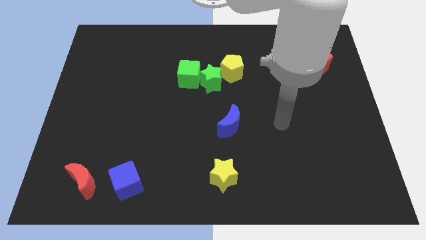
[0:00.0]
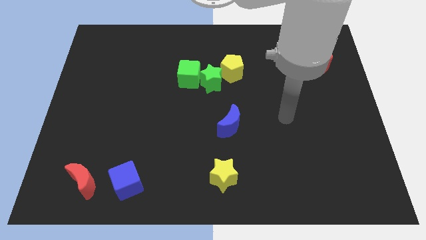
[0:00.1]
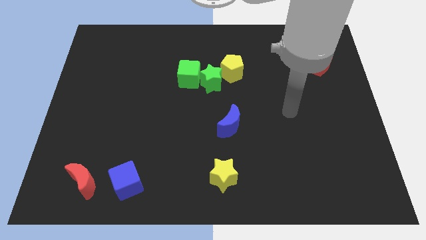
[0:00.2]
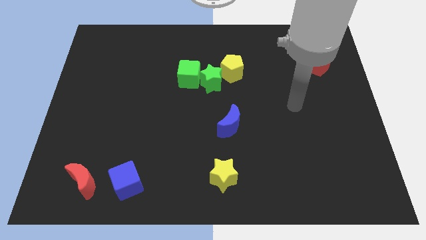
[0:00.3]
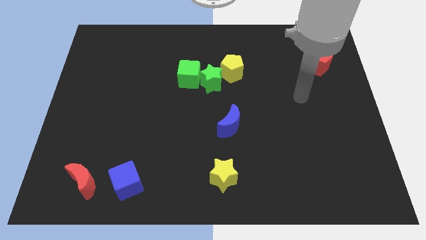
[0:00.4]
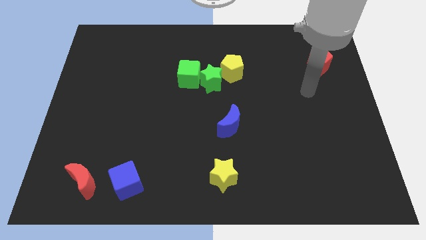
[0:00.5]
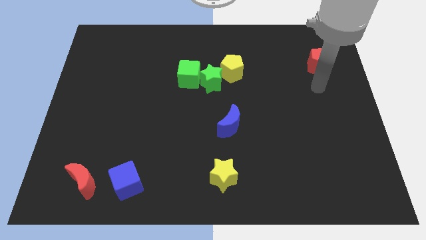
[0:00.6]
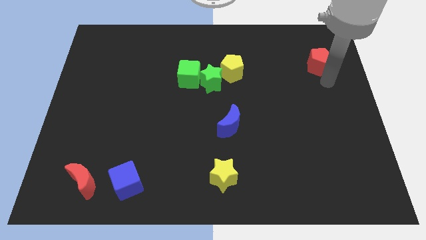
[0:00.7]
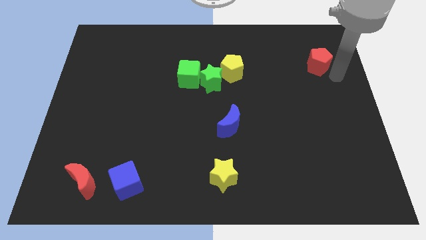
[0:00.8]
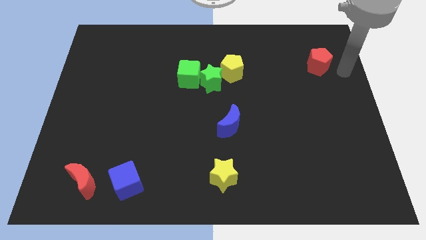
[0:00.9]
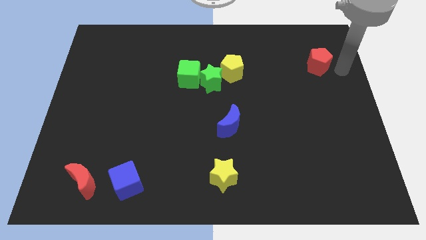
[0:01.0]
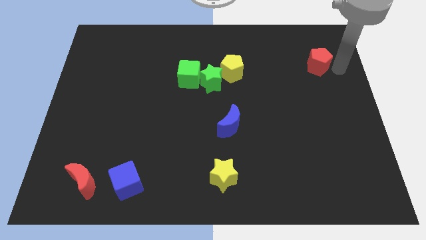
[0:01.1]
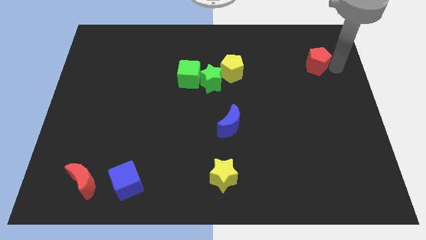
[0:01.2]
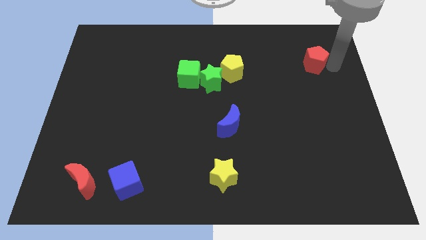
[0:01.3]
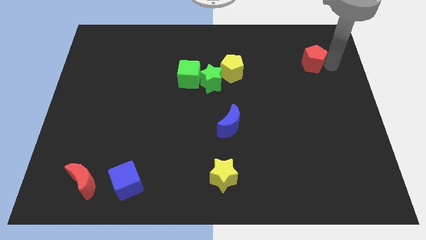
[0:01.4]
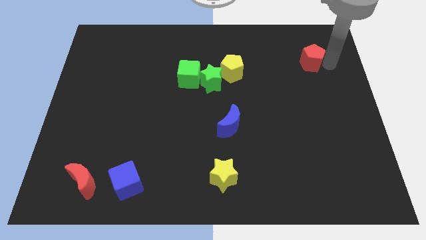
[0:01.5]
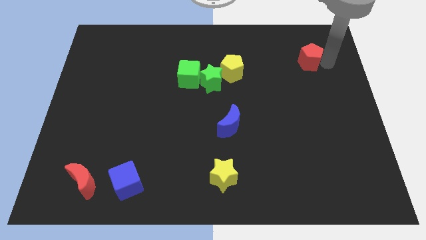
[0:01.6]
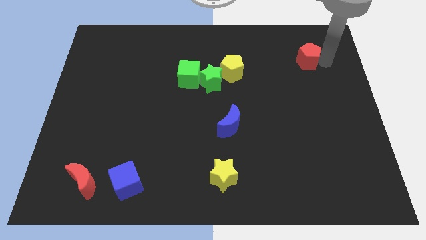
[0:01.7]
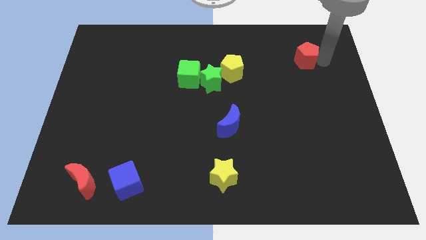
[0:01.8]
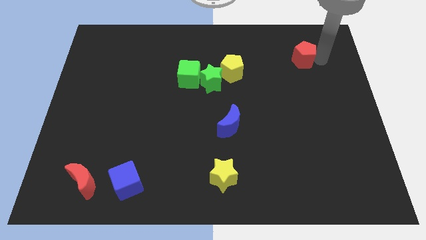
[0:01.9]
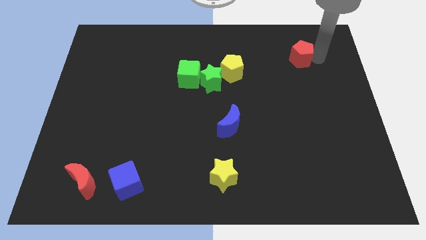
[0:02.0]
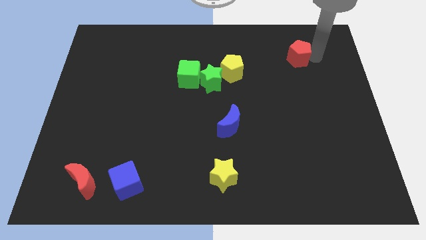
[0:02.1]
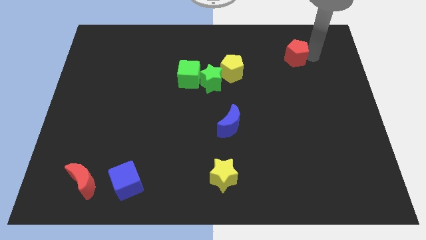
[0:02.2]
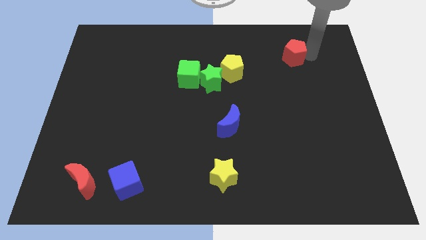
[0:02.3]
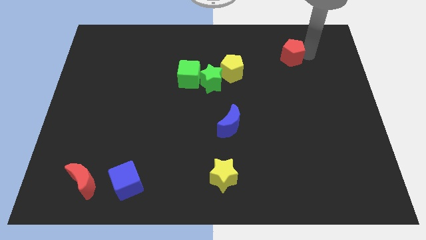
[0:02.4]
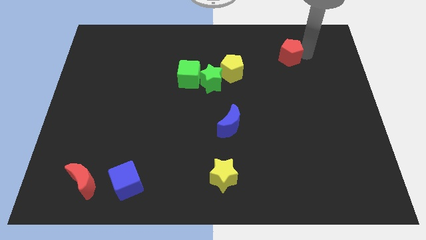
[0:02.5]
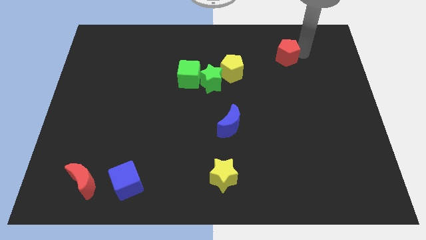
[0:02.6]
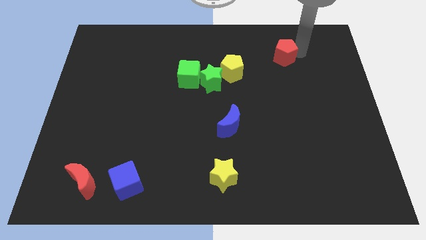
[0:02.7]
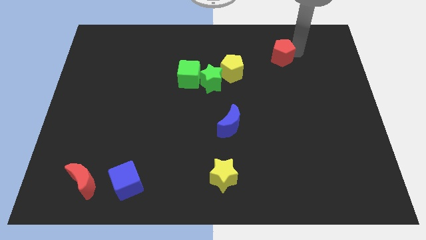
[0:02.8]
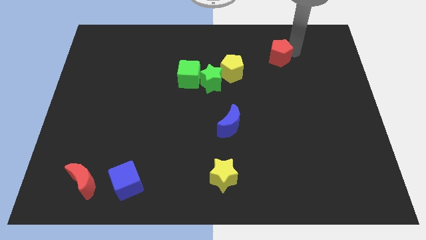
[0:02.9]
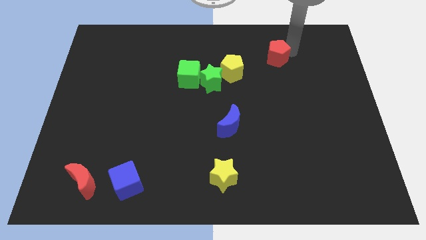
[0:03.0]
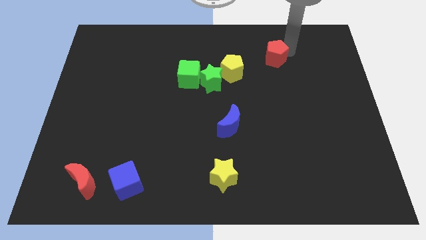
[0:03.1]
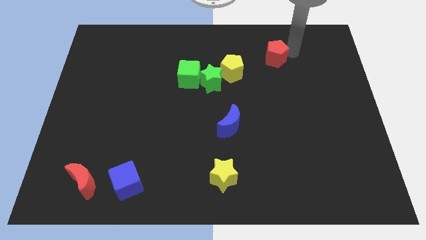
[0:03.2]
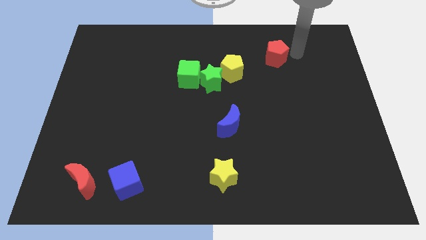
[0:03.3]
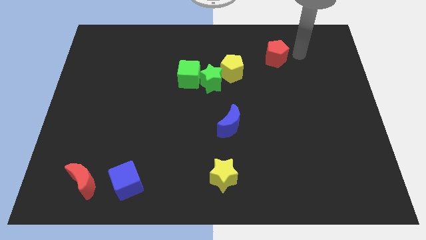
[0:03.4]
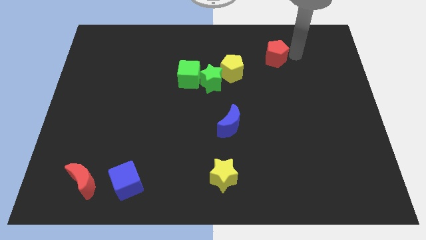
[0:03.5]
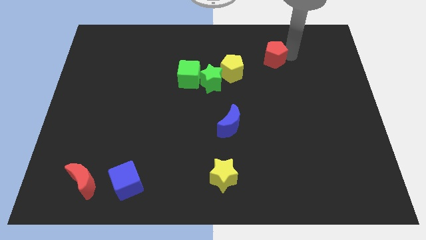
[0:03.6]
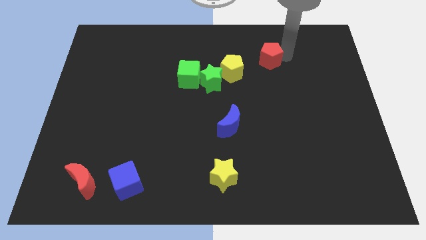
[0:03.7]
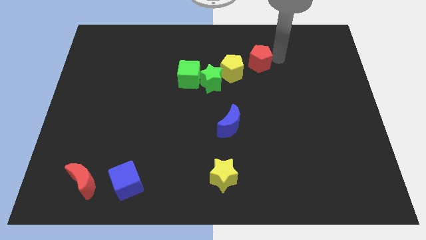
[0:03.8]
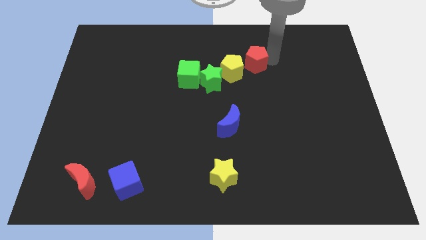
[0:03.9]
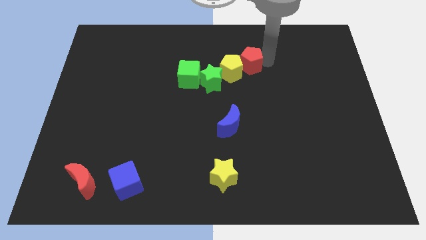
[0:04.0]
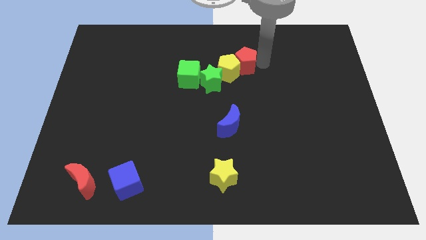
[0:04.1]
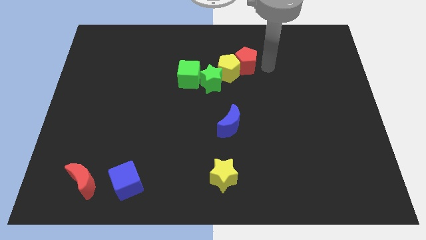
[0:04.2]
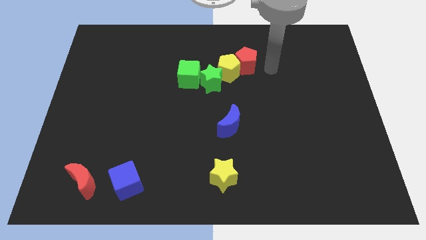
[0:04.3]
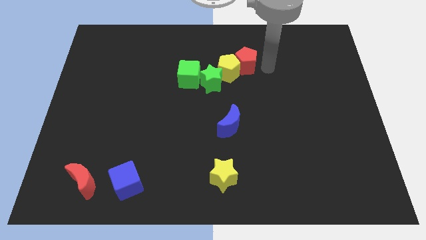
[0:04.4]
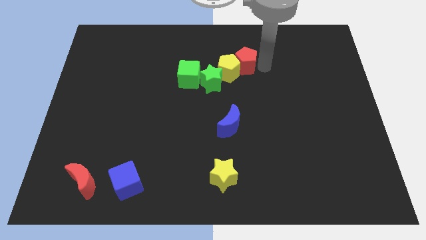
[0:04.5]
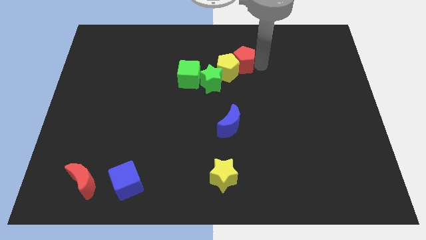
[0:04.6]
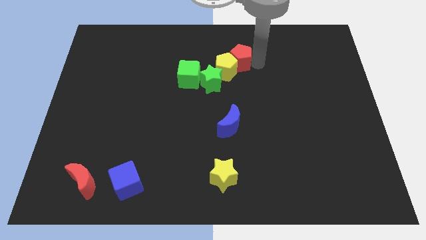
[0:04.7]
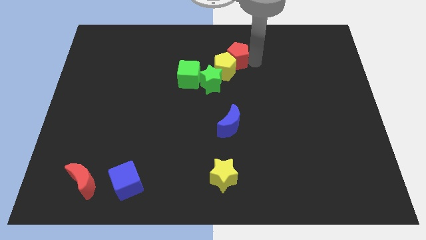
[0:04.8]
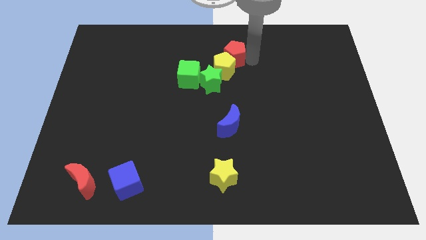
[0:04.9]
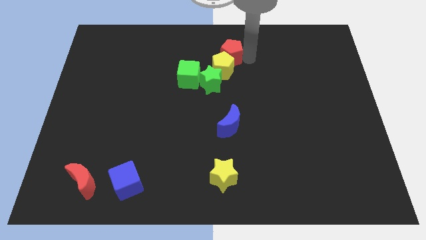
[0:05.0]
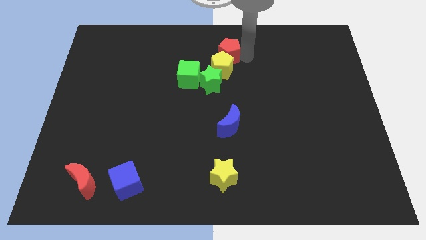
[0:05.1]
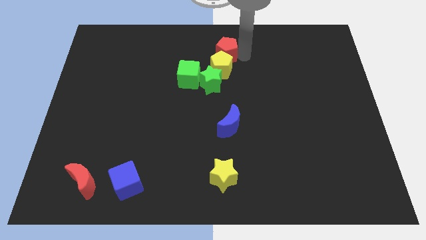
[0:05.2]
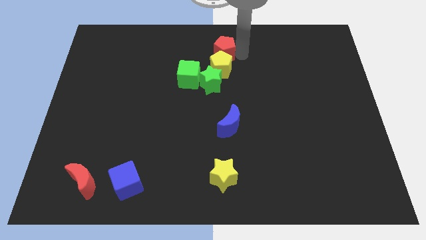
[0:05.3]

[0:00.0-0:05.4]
push the red pentagon to the top left of the yellow pentagon

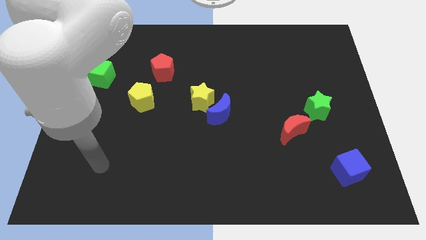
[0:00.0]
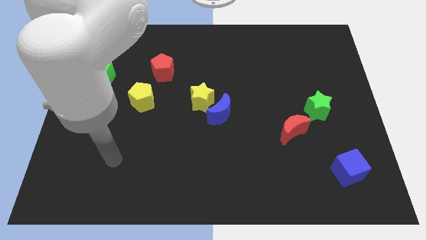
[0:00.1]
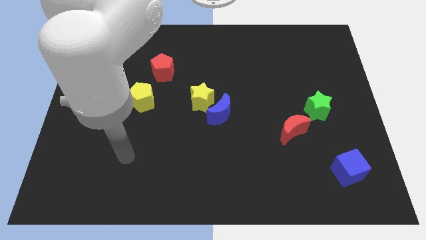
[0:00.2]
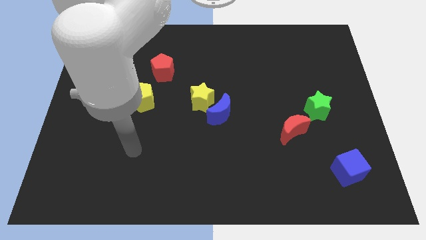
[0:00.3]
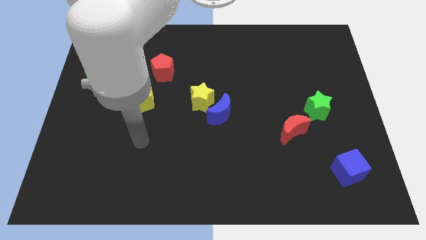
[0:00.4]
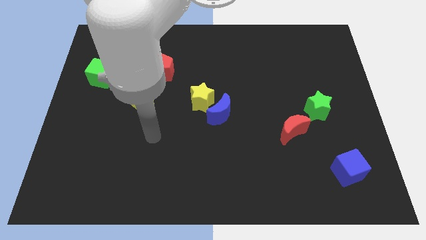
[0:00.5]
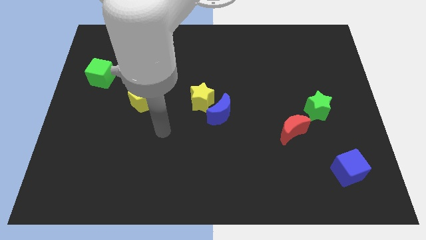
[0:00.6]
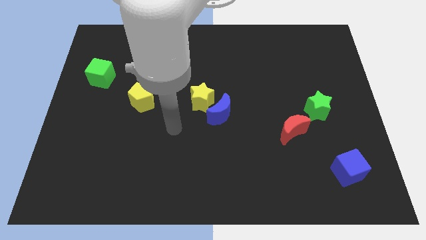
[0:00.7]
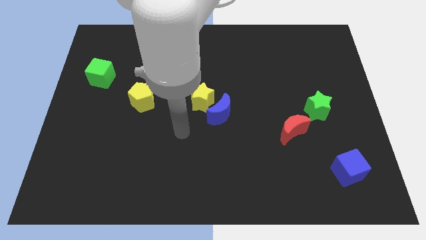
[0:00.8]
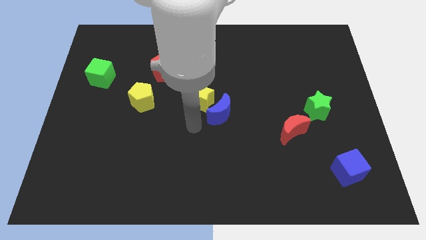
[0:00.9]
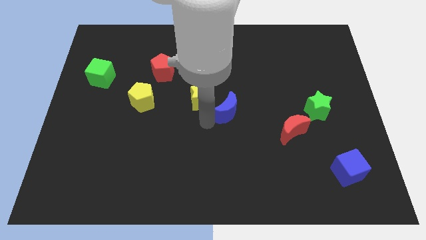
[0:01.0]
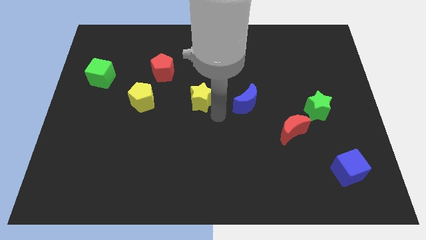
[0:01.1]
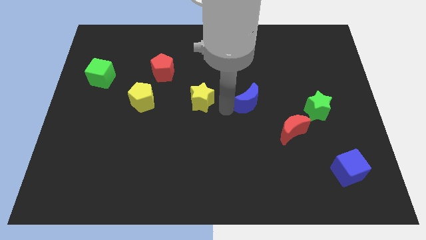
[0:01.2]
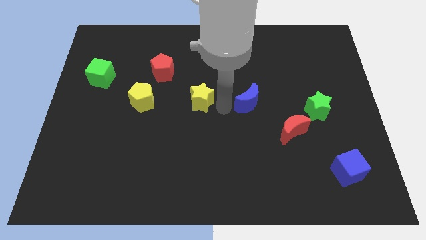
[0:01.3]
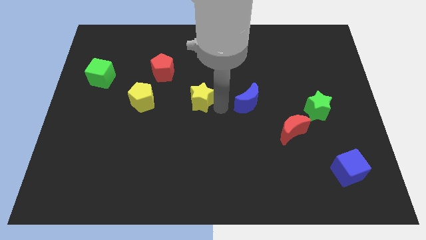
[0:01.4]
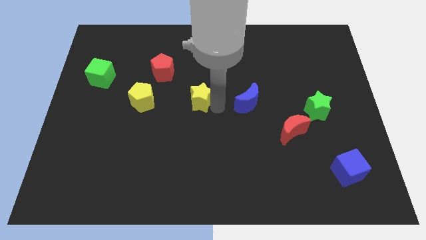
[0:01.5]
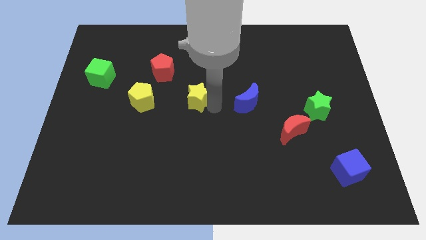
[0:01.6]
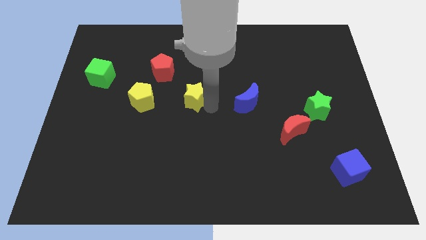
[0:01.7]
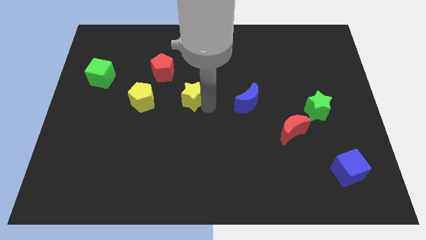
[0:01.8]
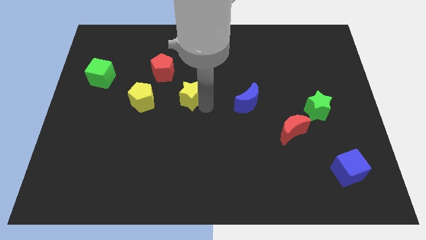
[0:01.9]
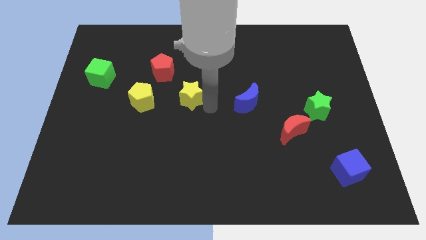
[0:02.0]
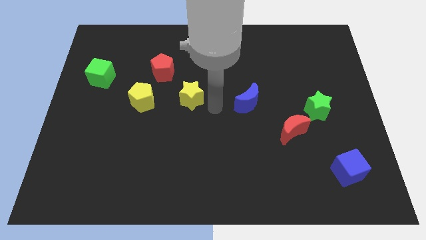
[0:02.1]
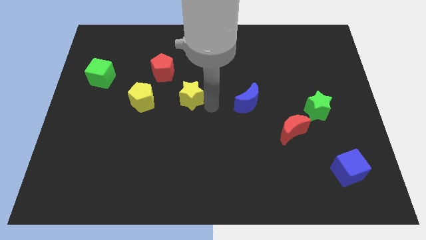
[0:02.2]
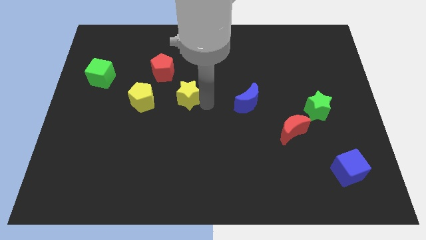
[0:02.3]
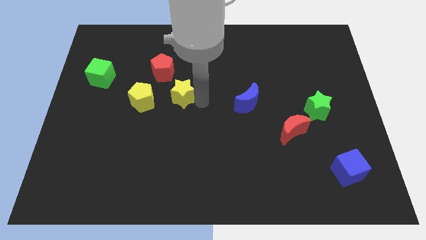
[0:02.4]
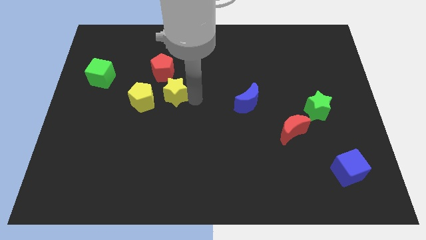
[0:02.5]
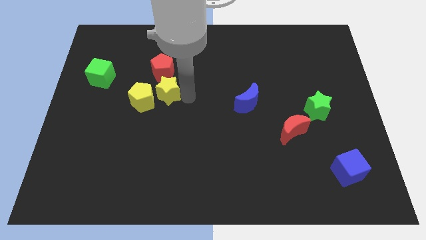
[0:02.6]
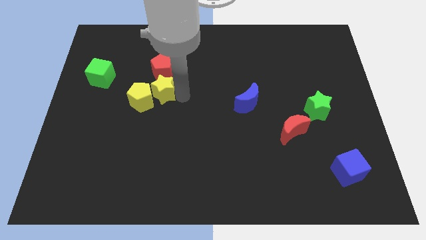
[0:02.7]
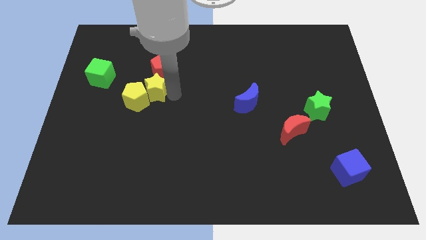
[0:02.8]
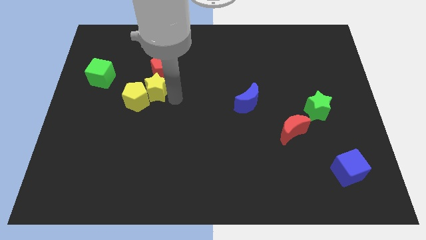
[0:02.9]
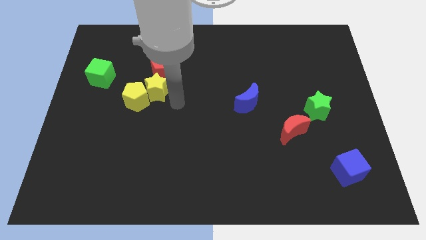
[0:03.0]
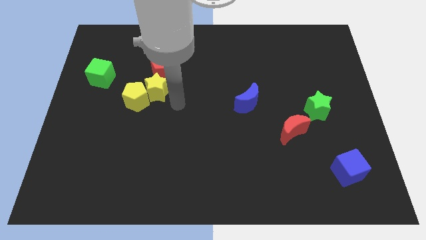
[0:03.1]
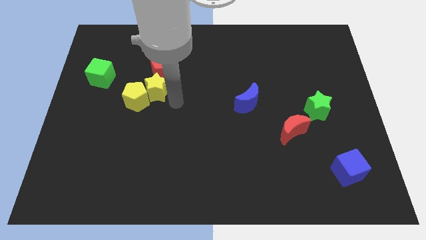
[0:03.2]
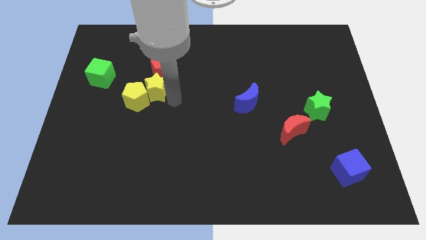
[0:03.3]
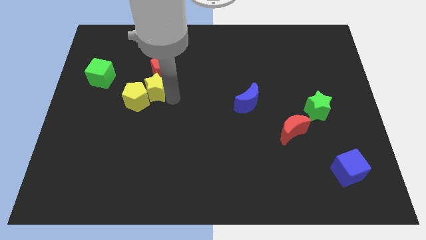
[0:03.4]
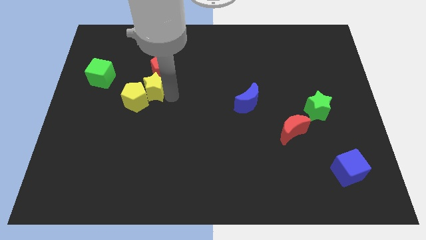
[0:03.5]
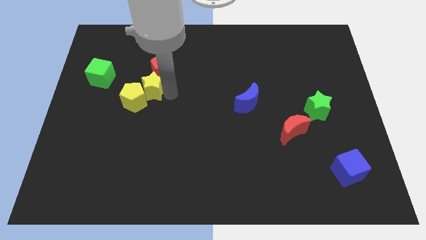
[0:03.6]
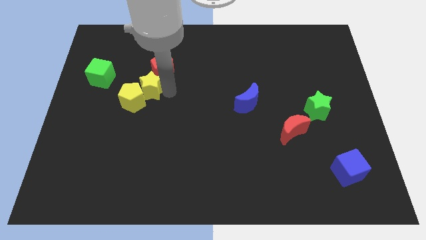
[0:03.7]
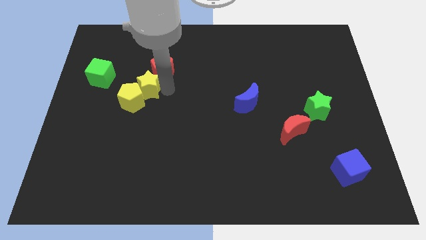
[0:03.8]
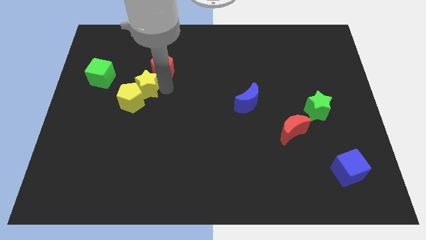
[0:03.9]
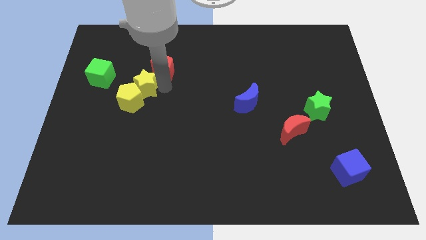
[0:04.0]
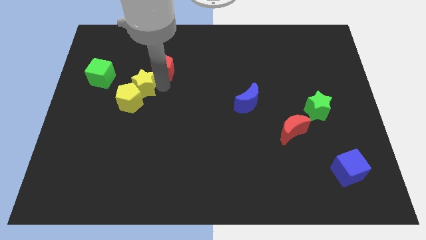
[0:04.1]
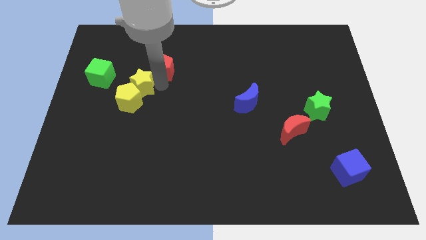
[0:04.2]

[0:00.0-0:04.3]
slide the yellow star left of the red pentagon
